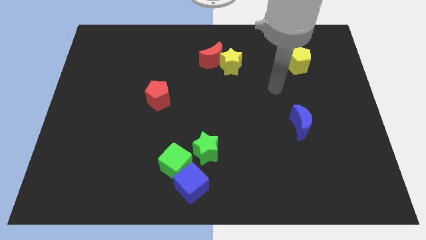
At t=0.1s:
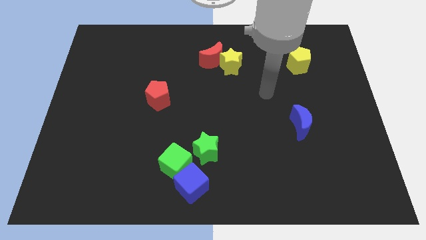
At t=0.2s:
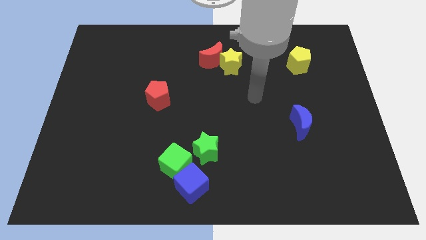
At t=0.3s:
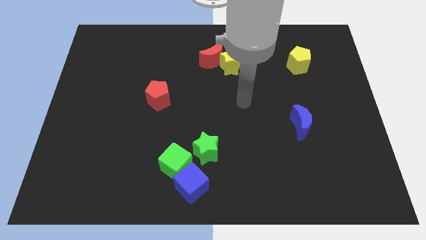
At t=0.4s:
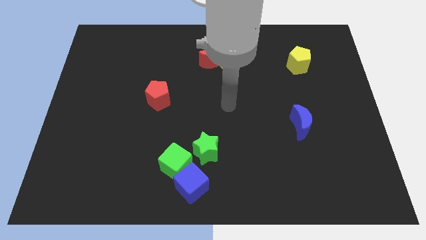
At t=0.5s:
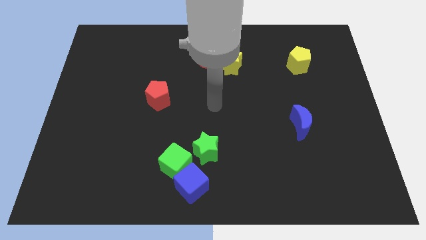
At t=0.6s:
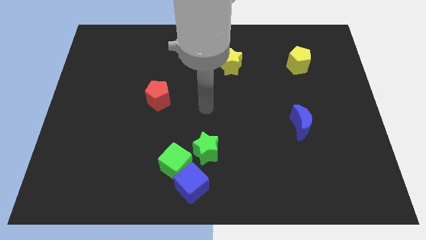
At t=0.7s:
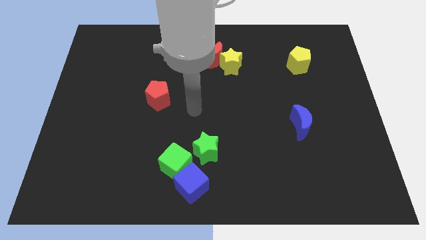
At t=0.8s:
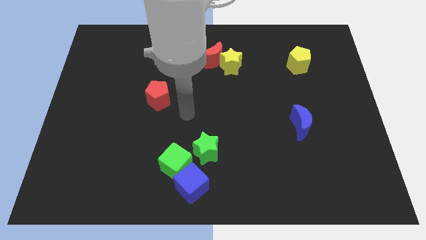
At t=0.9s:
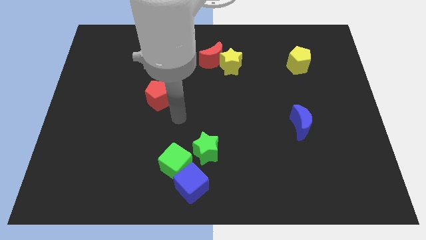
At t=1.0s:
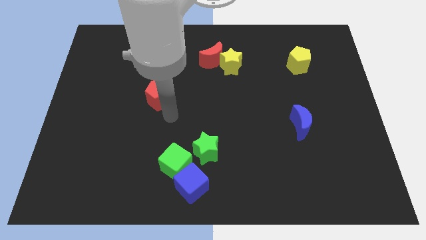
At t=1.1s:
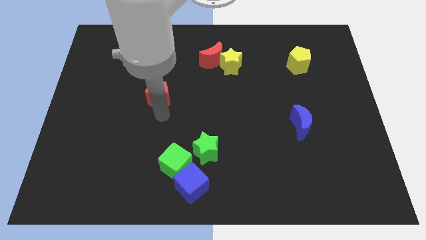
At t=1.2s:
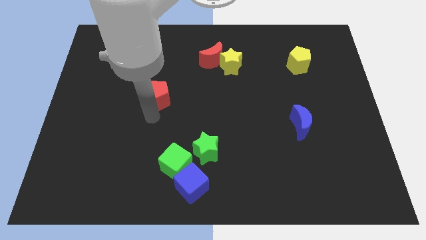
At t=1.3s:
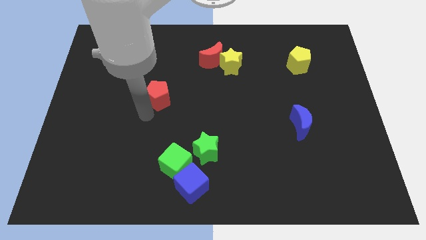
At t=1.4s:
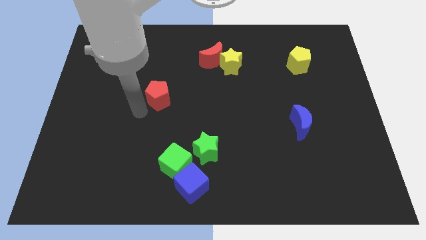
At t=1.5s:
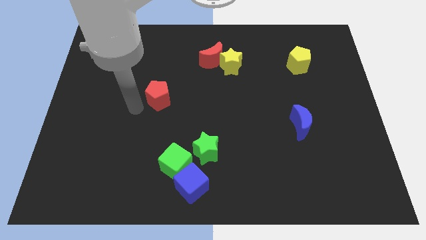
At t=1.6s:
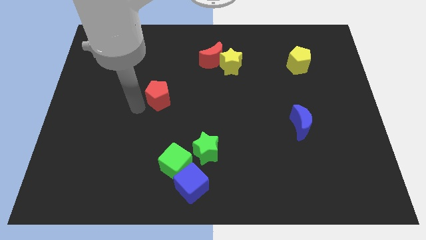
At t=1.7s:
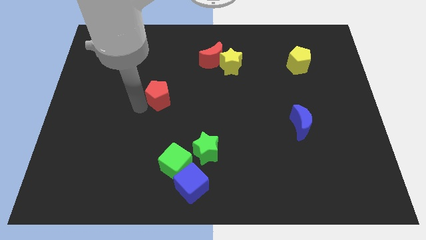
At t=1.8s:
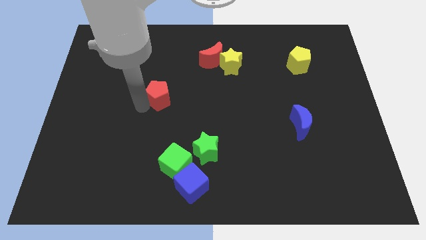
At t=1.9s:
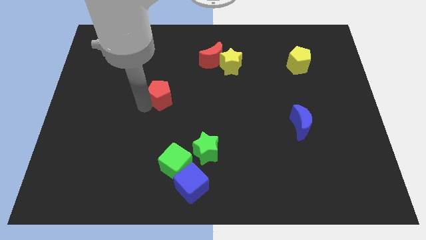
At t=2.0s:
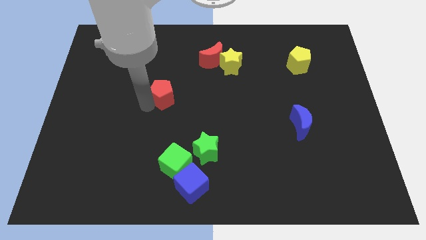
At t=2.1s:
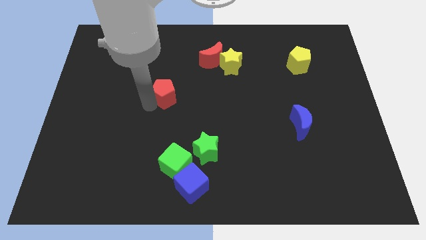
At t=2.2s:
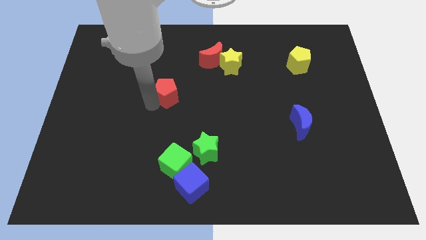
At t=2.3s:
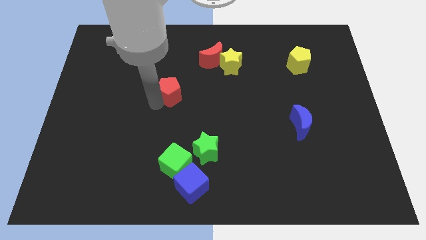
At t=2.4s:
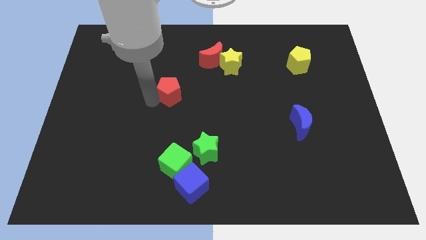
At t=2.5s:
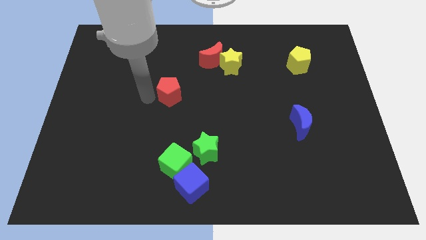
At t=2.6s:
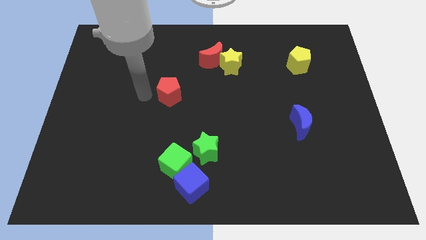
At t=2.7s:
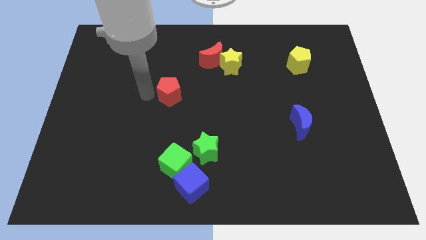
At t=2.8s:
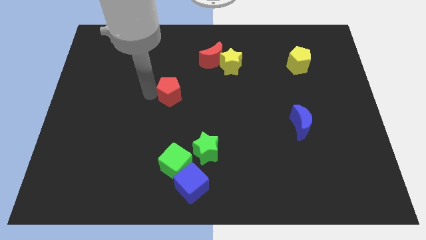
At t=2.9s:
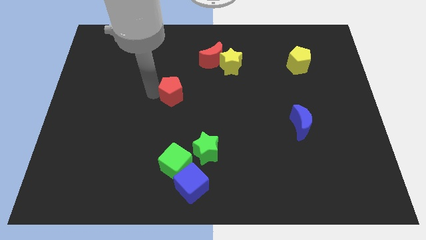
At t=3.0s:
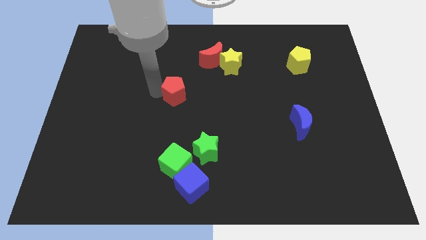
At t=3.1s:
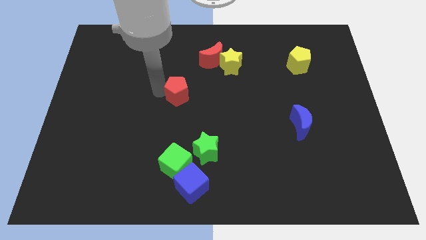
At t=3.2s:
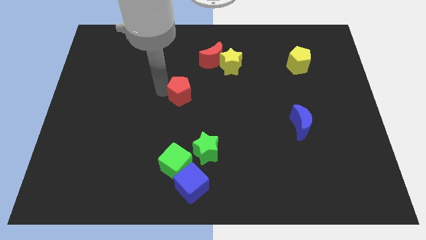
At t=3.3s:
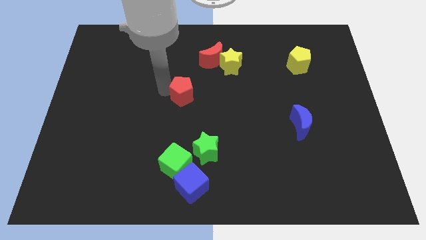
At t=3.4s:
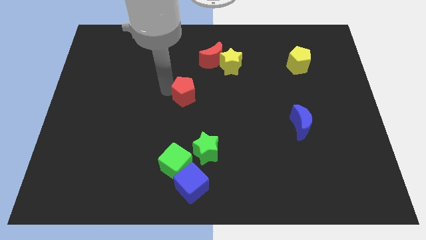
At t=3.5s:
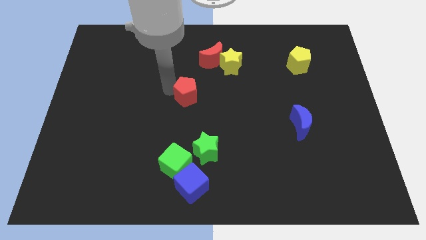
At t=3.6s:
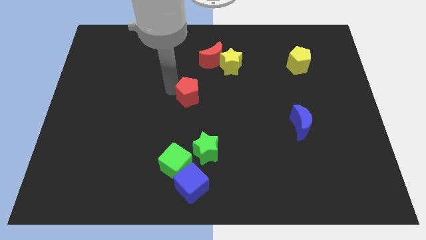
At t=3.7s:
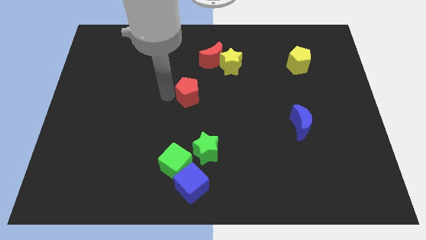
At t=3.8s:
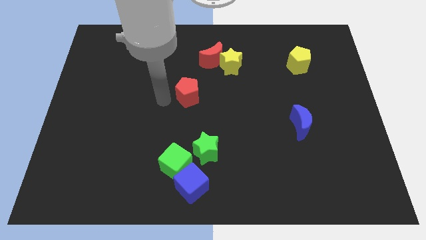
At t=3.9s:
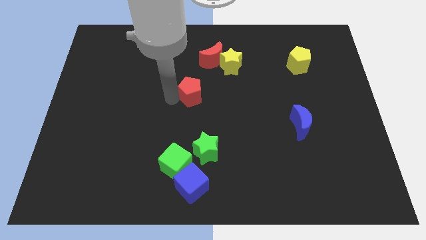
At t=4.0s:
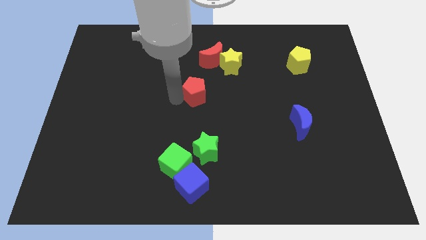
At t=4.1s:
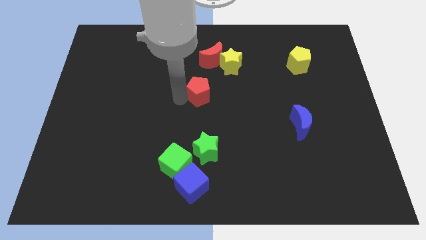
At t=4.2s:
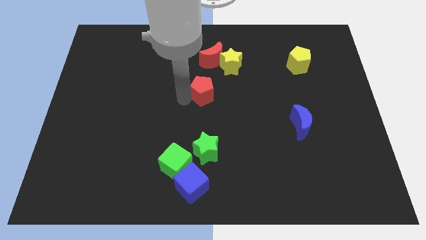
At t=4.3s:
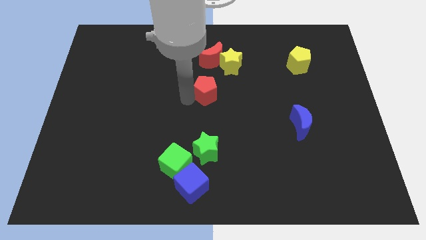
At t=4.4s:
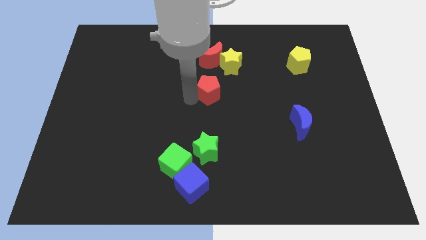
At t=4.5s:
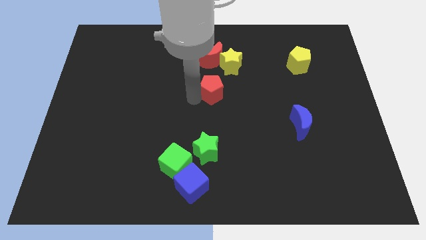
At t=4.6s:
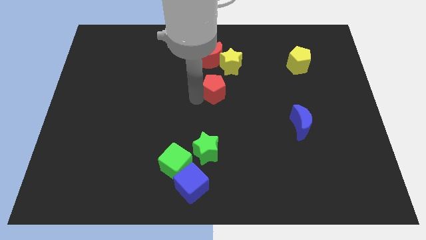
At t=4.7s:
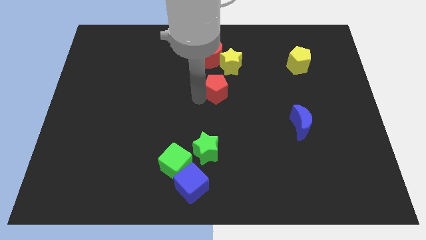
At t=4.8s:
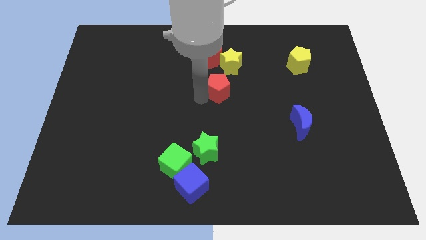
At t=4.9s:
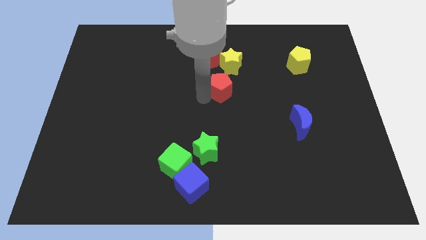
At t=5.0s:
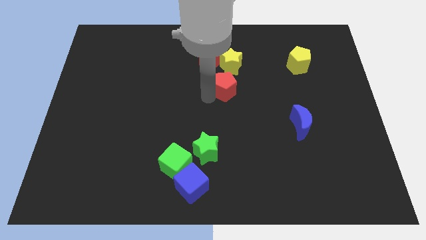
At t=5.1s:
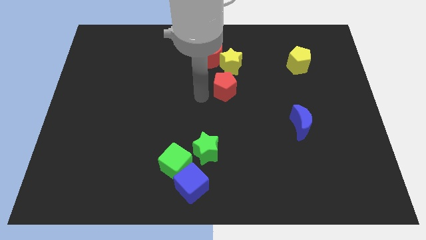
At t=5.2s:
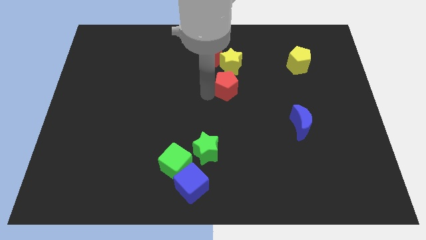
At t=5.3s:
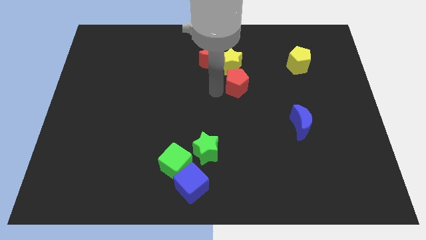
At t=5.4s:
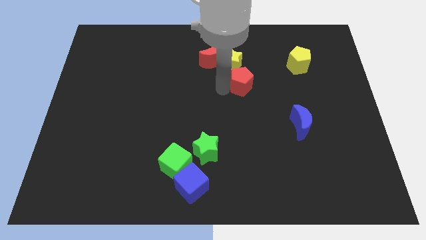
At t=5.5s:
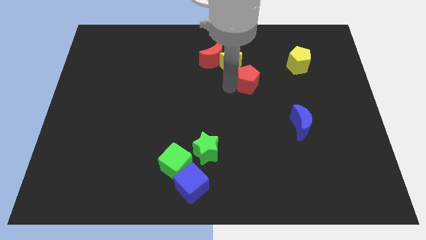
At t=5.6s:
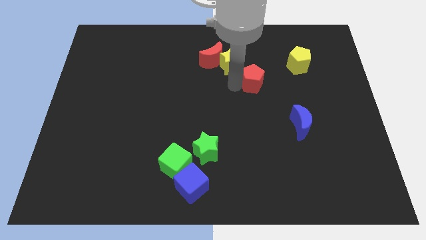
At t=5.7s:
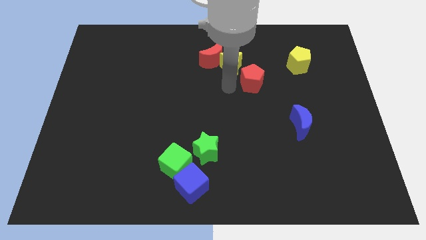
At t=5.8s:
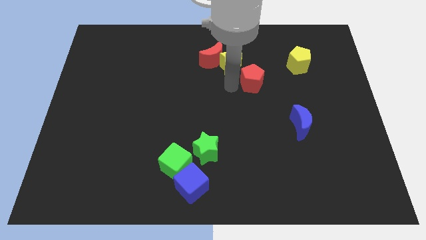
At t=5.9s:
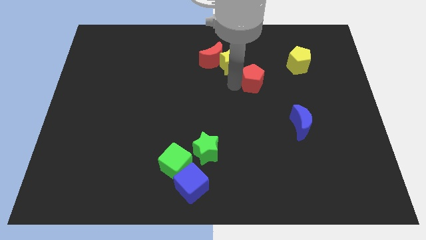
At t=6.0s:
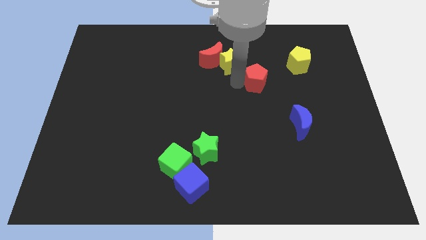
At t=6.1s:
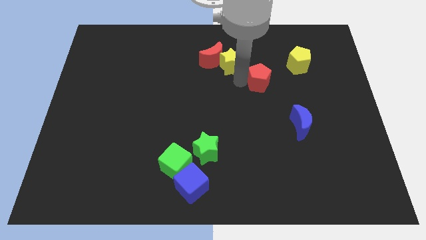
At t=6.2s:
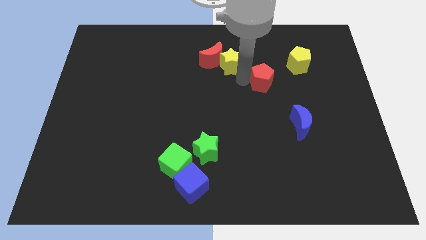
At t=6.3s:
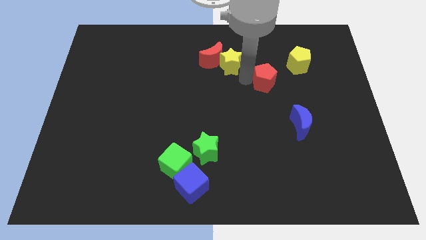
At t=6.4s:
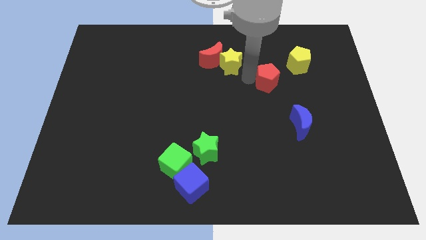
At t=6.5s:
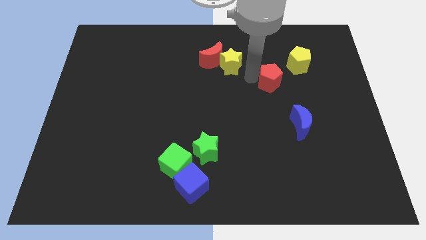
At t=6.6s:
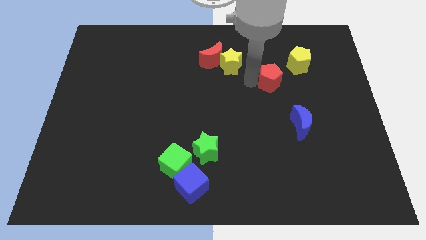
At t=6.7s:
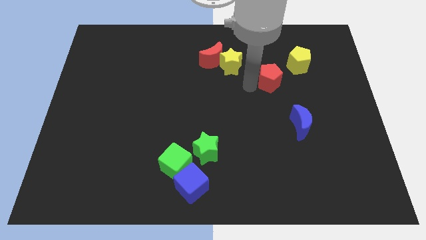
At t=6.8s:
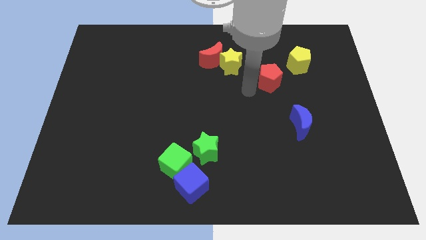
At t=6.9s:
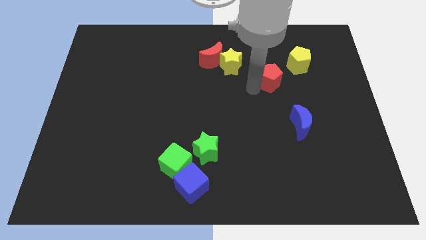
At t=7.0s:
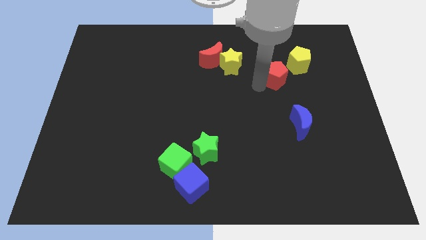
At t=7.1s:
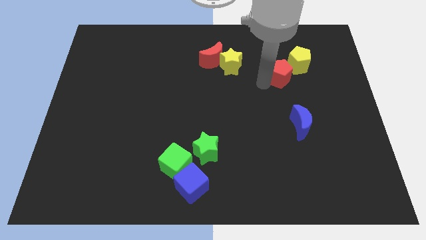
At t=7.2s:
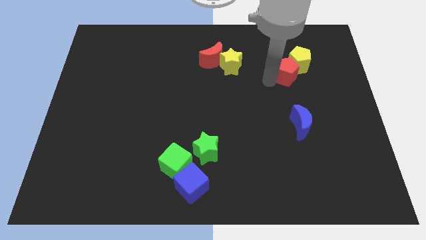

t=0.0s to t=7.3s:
push the red pentagon next to the yellow pentagon

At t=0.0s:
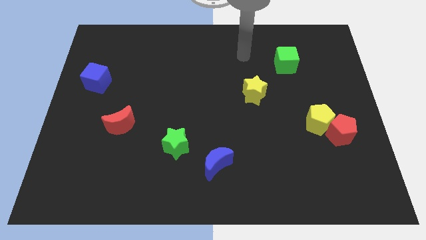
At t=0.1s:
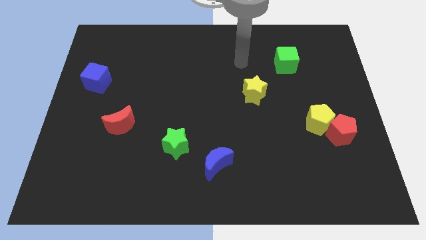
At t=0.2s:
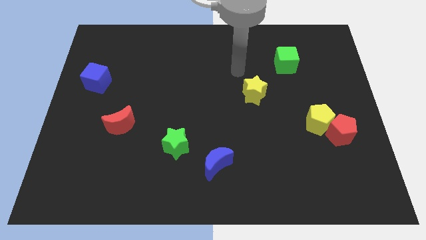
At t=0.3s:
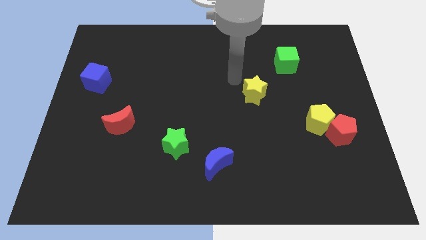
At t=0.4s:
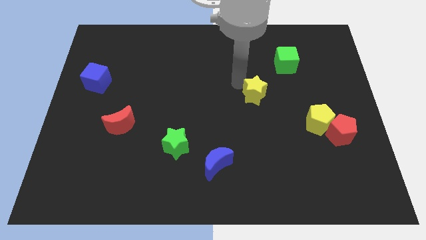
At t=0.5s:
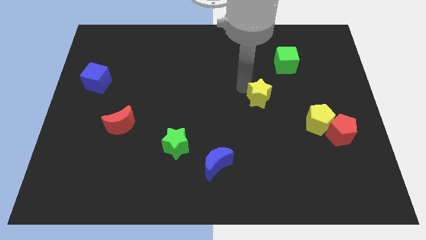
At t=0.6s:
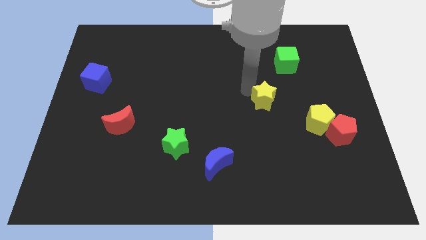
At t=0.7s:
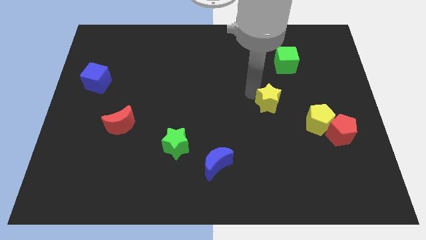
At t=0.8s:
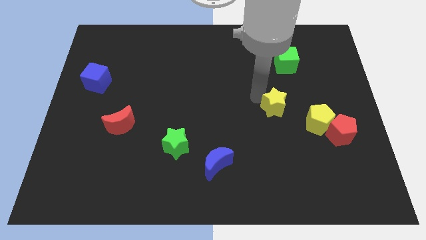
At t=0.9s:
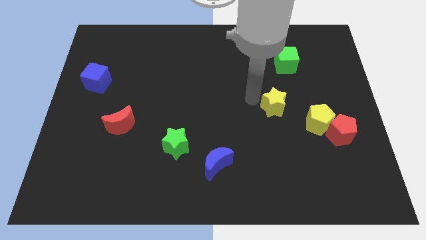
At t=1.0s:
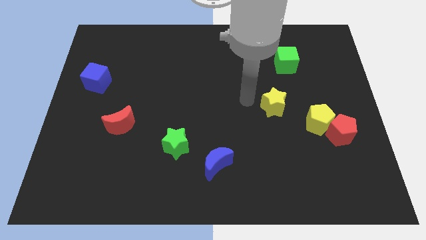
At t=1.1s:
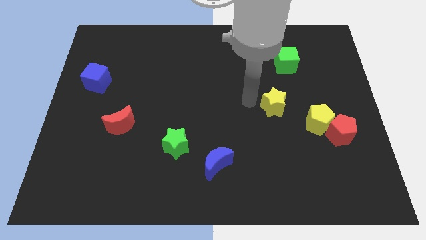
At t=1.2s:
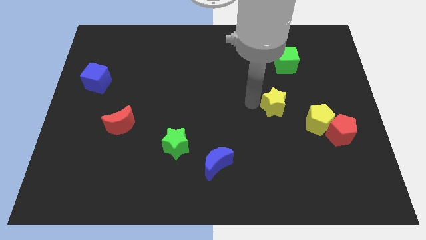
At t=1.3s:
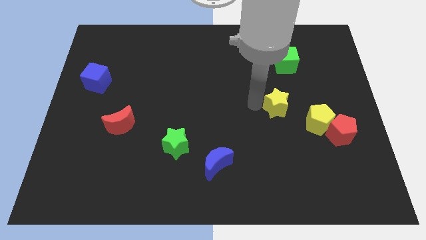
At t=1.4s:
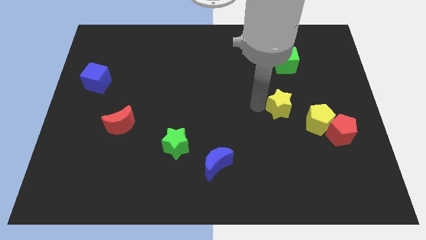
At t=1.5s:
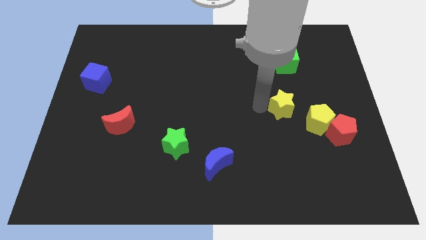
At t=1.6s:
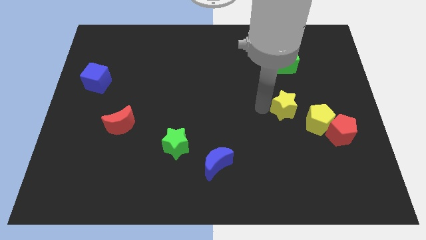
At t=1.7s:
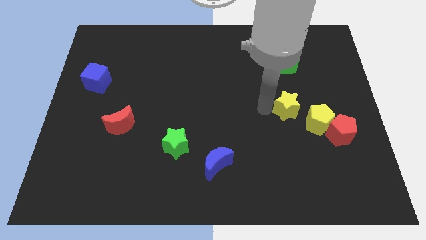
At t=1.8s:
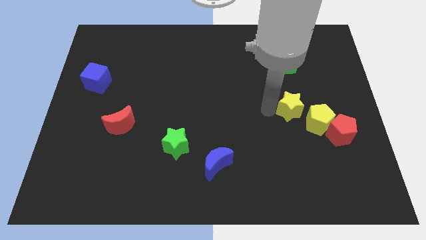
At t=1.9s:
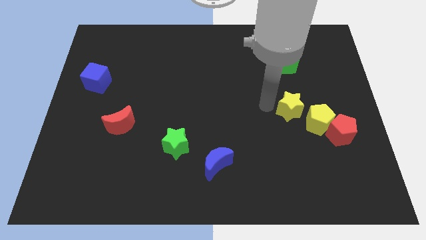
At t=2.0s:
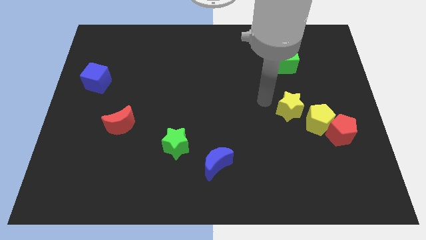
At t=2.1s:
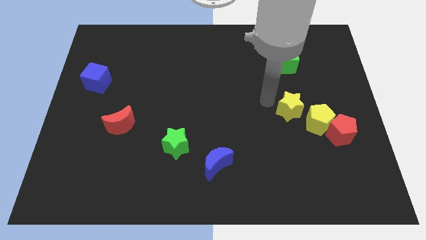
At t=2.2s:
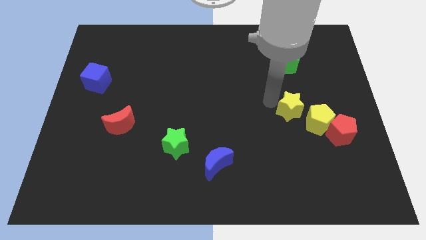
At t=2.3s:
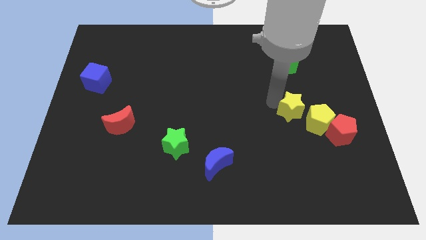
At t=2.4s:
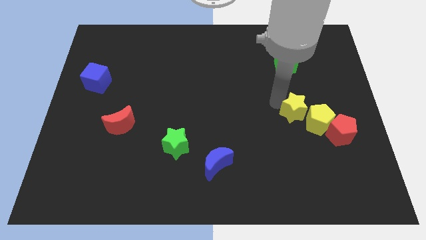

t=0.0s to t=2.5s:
slide the yellow star next to the yellow pentagon
